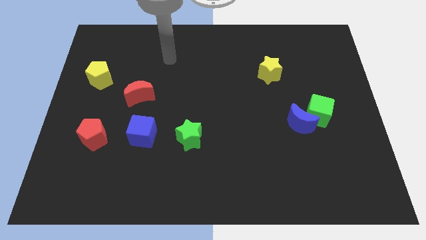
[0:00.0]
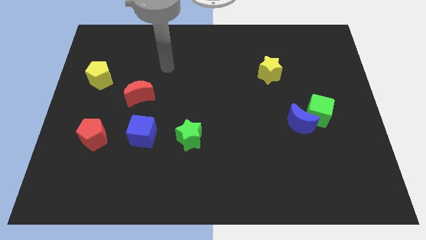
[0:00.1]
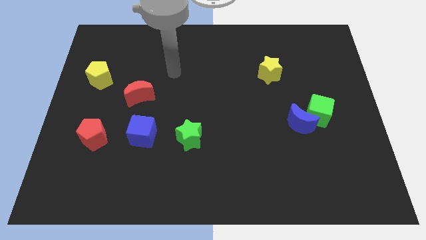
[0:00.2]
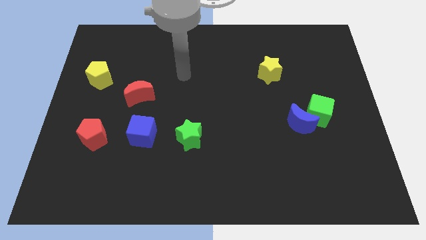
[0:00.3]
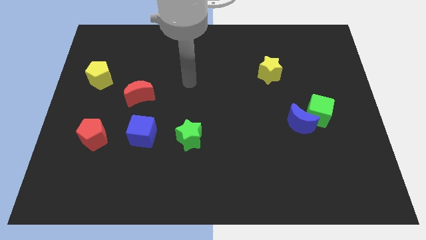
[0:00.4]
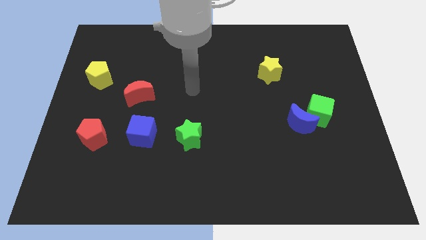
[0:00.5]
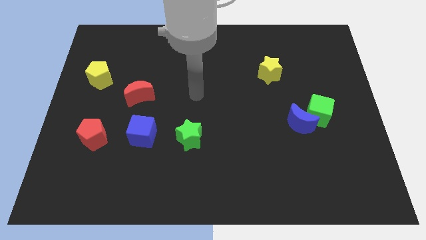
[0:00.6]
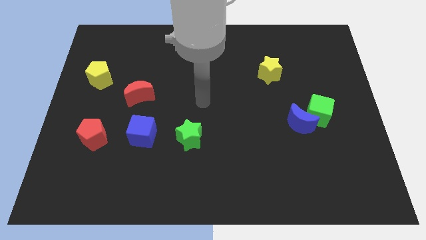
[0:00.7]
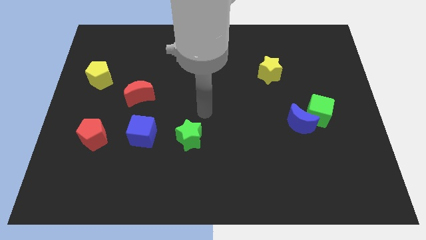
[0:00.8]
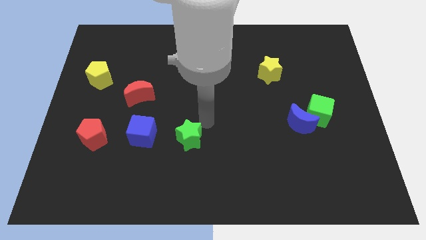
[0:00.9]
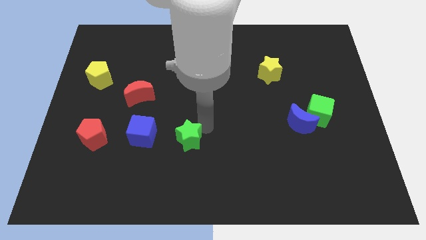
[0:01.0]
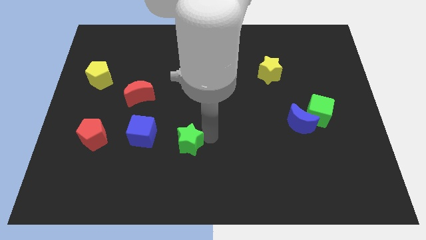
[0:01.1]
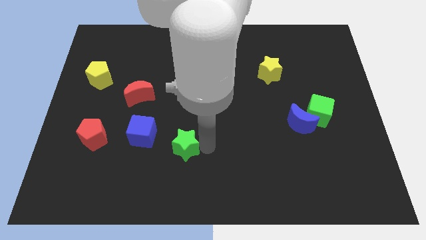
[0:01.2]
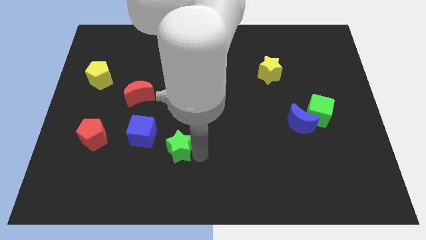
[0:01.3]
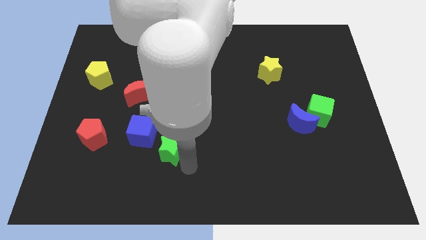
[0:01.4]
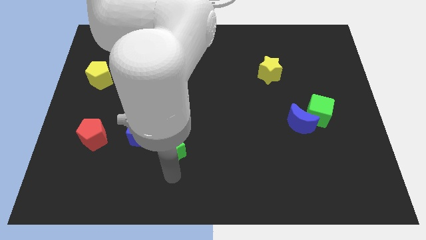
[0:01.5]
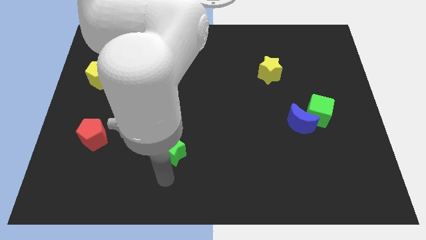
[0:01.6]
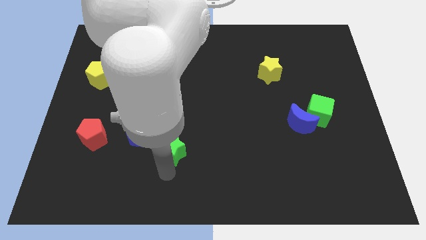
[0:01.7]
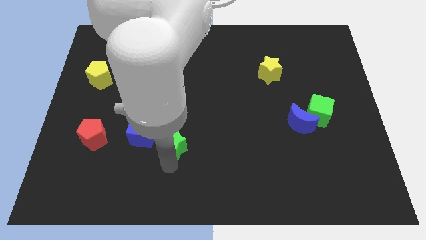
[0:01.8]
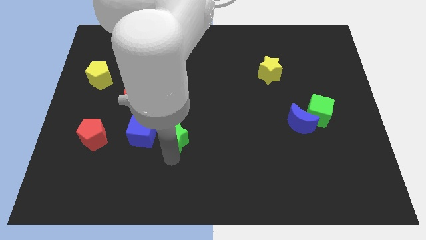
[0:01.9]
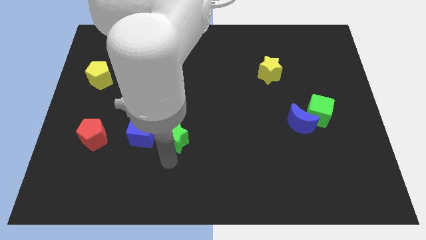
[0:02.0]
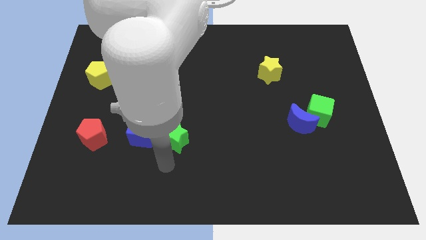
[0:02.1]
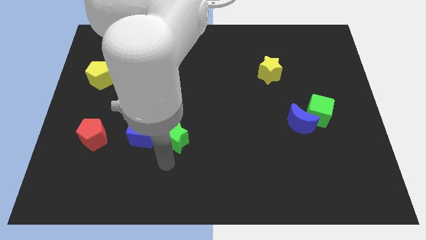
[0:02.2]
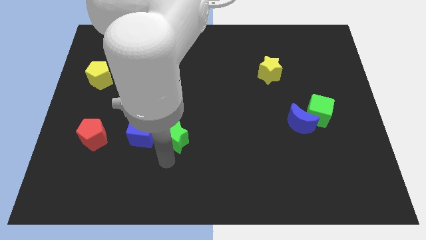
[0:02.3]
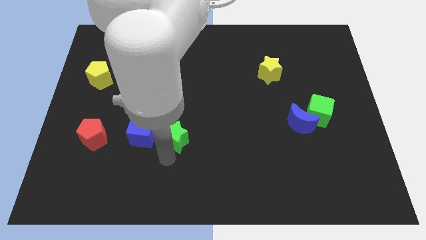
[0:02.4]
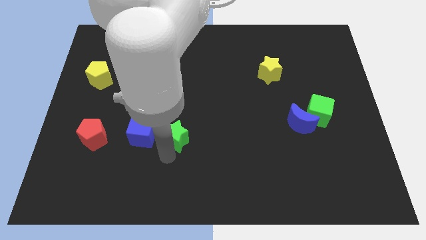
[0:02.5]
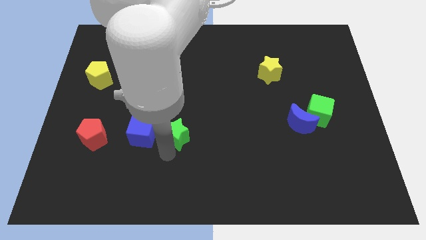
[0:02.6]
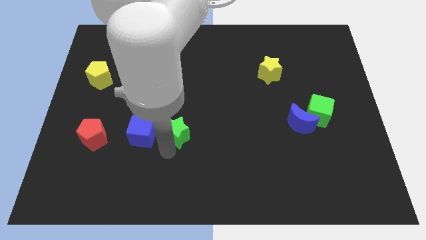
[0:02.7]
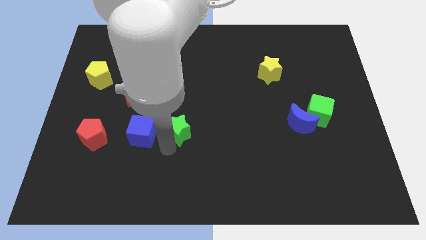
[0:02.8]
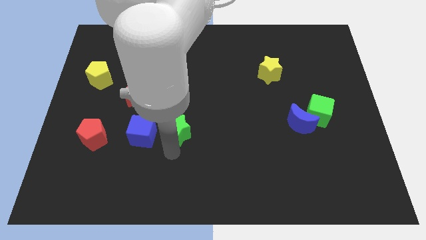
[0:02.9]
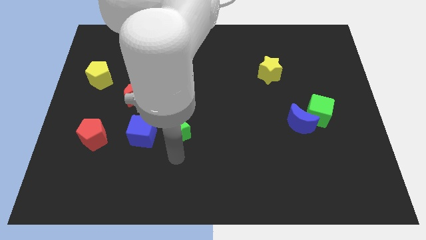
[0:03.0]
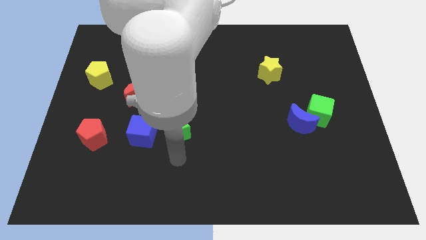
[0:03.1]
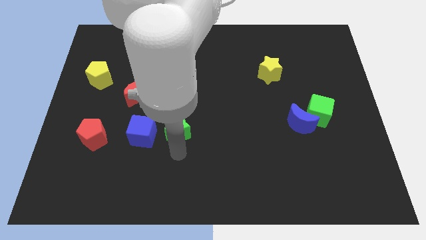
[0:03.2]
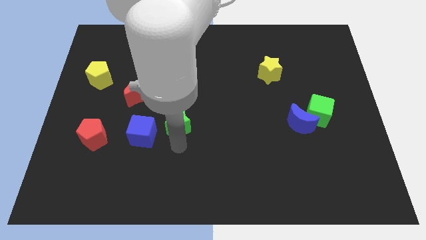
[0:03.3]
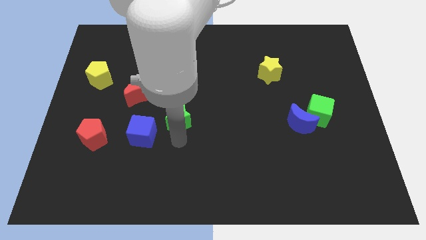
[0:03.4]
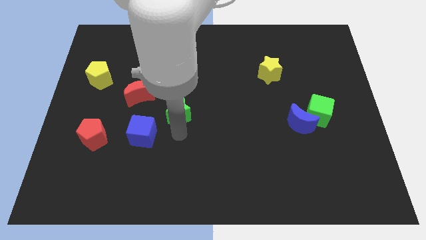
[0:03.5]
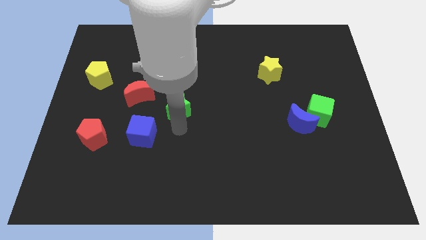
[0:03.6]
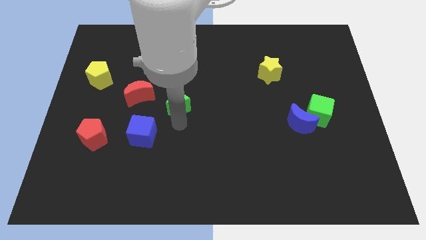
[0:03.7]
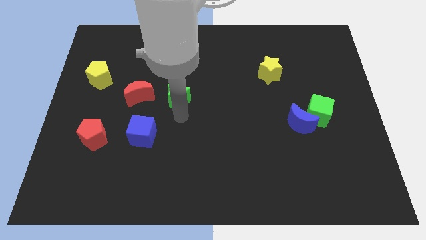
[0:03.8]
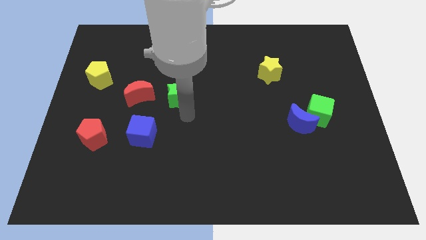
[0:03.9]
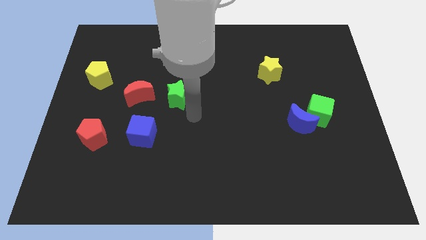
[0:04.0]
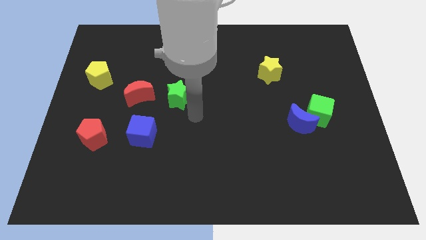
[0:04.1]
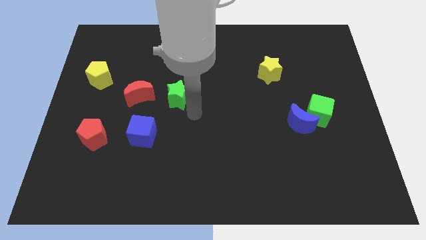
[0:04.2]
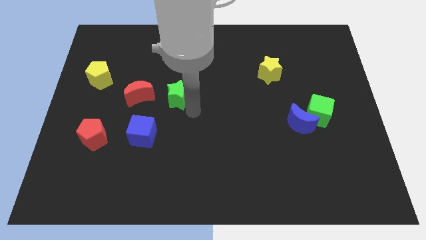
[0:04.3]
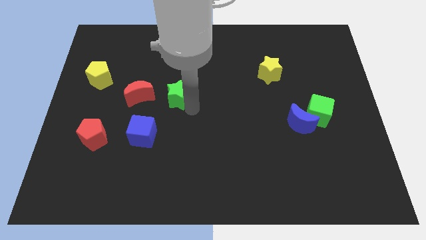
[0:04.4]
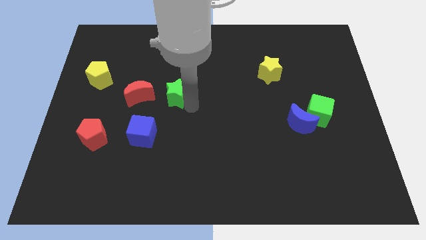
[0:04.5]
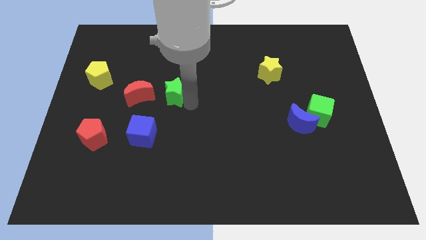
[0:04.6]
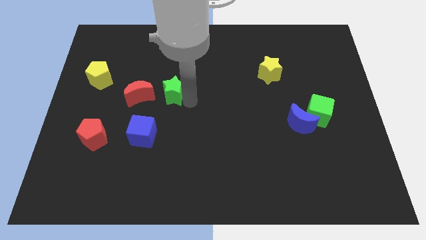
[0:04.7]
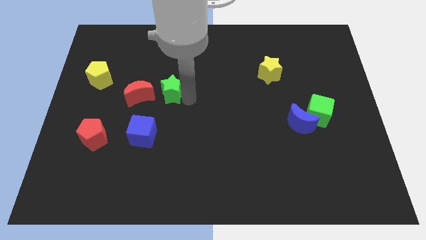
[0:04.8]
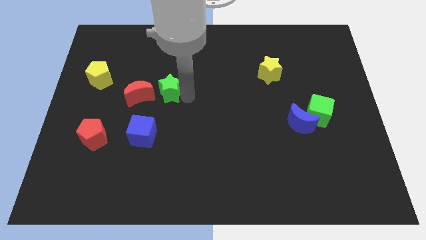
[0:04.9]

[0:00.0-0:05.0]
move the green star diagonally up and to the right of the red moon

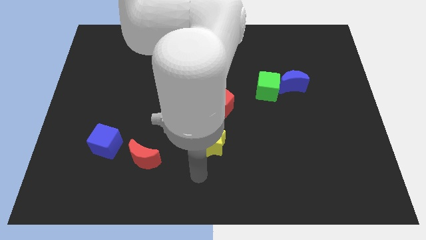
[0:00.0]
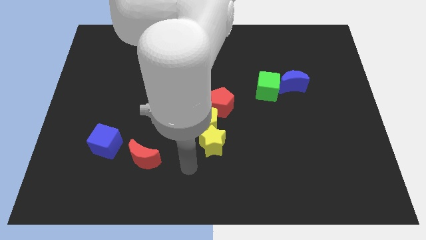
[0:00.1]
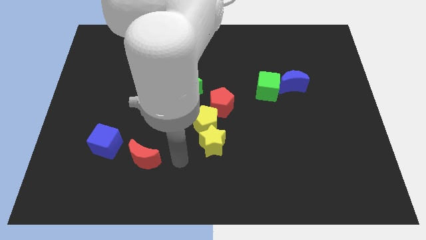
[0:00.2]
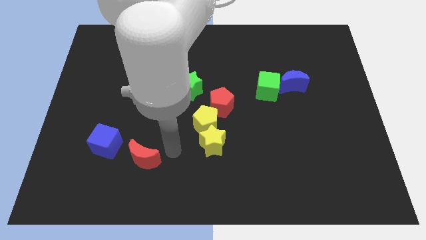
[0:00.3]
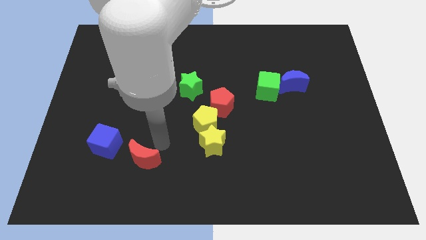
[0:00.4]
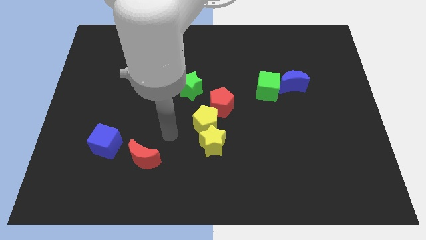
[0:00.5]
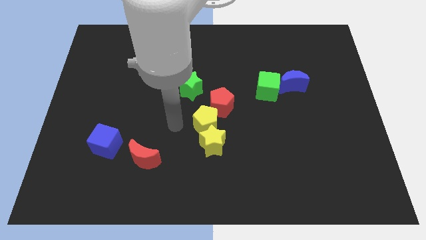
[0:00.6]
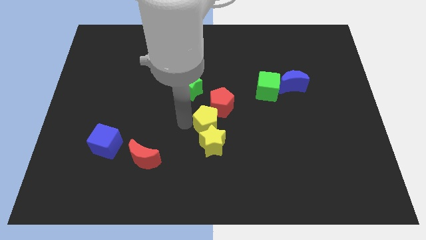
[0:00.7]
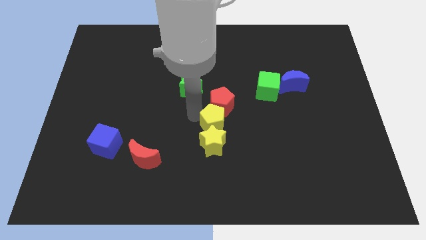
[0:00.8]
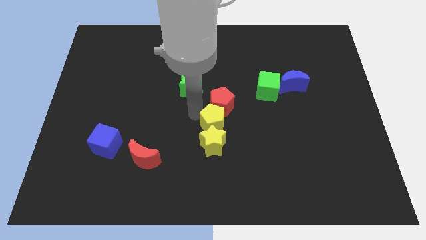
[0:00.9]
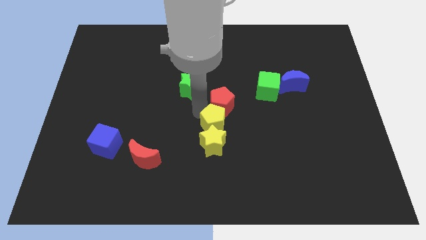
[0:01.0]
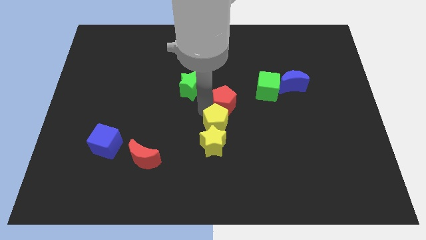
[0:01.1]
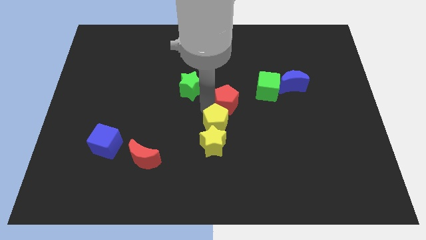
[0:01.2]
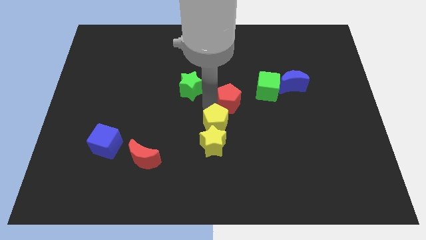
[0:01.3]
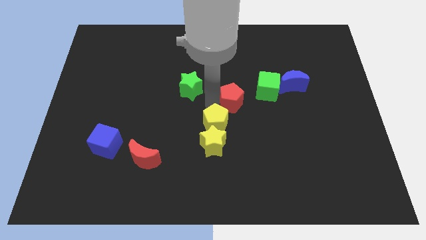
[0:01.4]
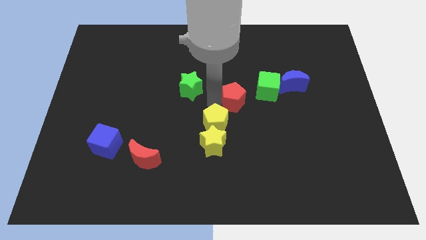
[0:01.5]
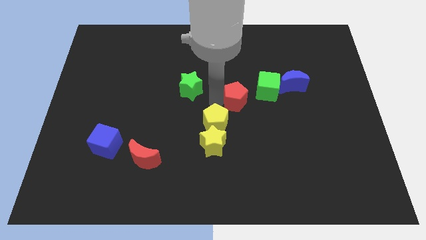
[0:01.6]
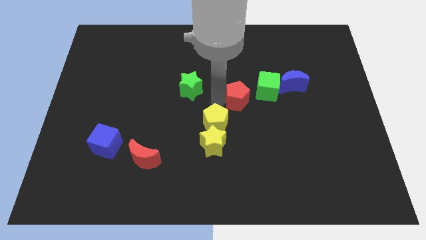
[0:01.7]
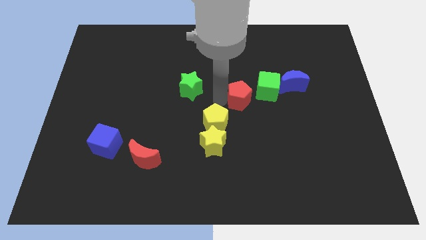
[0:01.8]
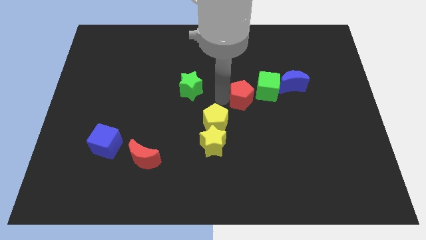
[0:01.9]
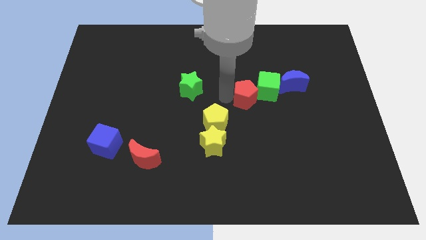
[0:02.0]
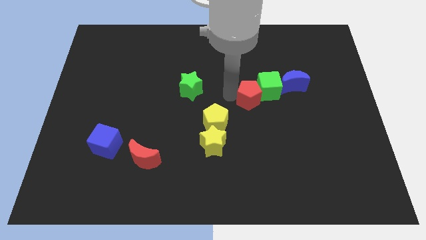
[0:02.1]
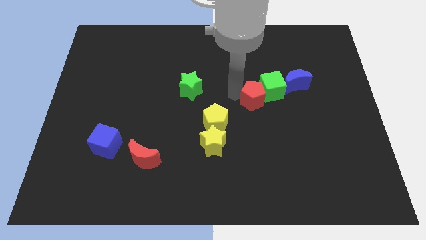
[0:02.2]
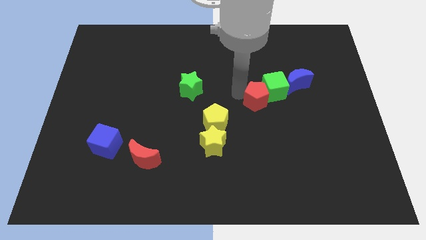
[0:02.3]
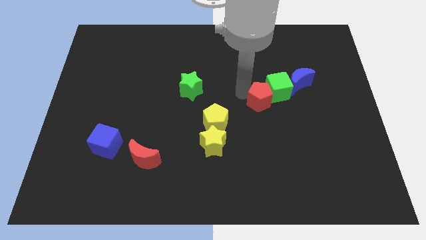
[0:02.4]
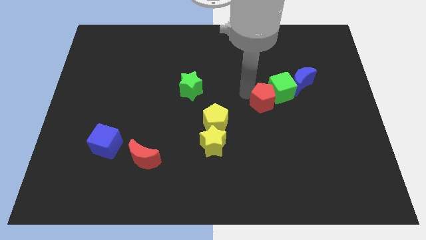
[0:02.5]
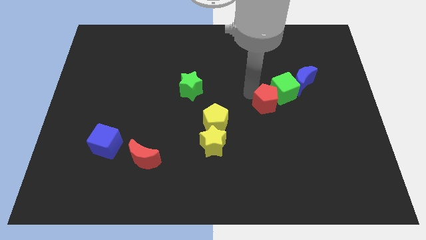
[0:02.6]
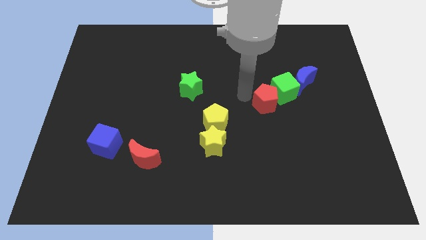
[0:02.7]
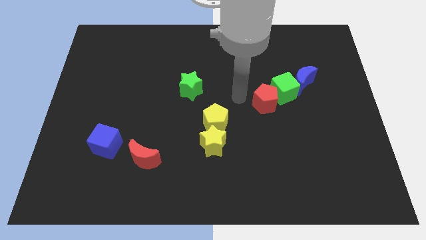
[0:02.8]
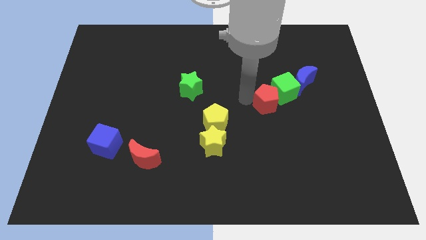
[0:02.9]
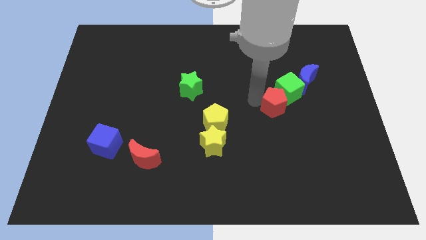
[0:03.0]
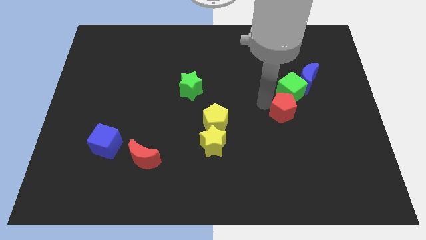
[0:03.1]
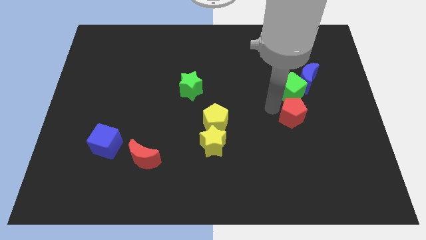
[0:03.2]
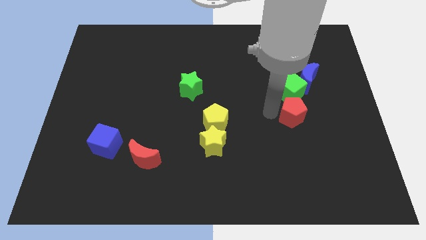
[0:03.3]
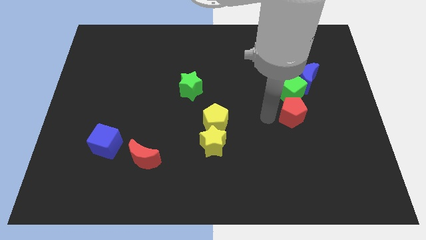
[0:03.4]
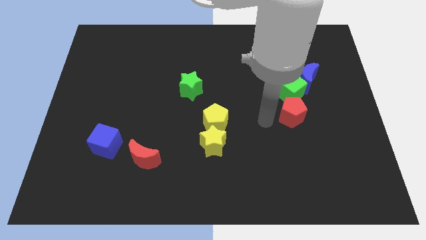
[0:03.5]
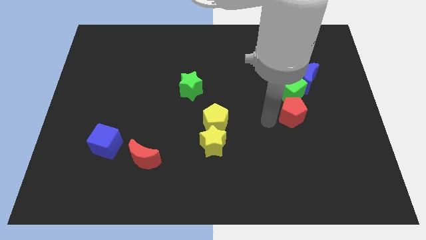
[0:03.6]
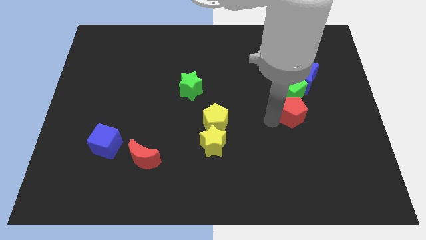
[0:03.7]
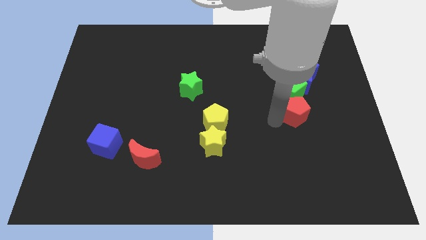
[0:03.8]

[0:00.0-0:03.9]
move the red pentagon to the bottom right of the green cube

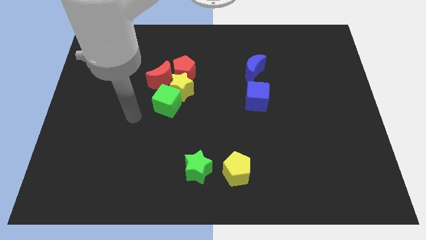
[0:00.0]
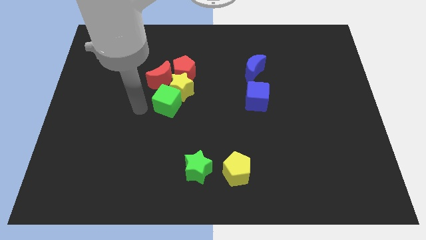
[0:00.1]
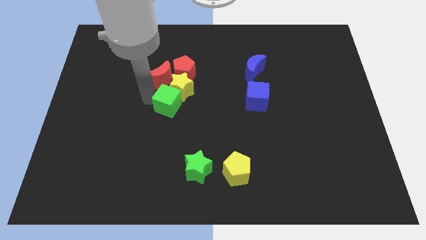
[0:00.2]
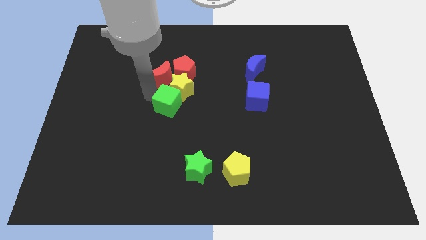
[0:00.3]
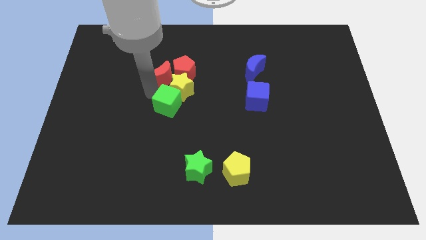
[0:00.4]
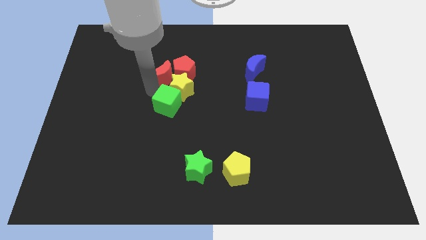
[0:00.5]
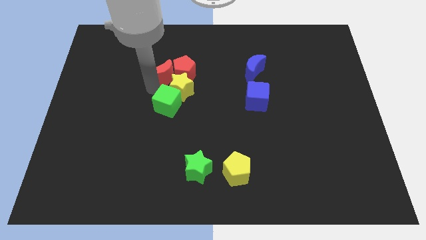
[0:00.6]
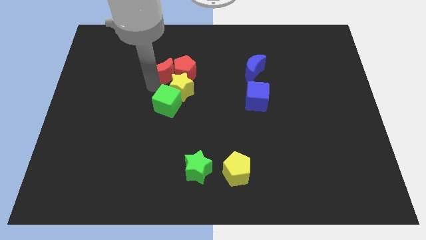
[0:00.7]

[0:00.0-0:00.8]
push the red moon above the yellow star
